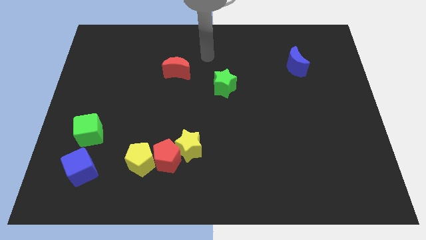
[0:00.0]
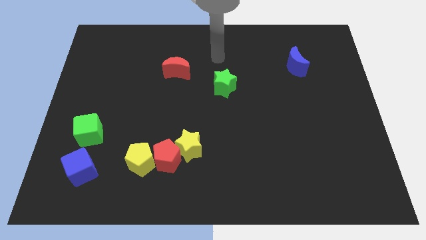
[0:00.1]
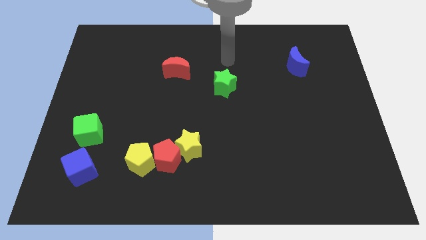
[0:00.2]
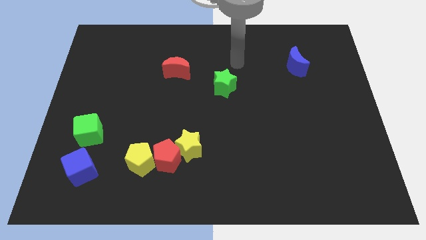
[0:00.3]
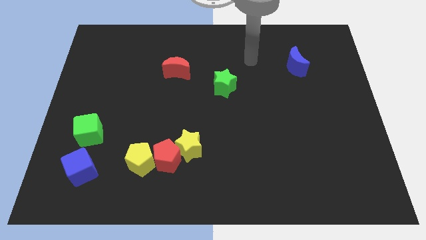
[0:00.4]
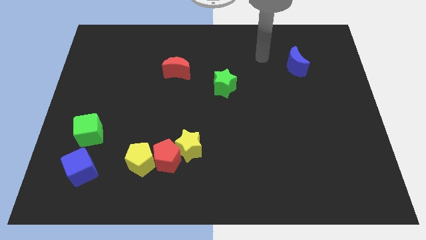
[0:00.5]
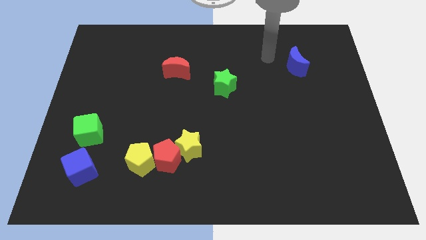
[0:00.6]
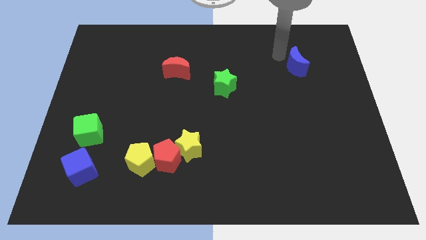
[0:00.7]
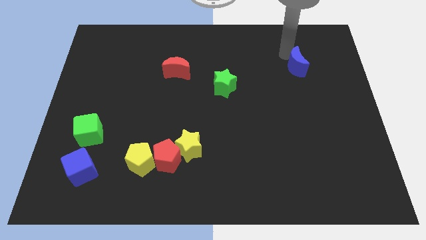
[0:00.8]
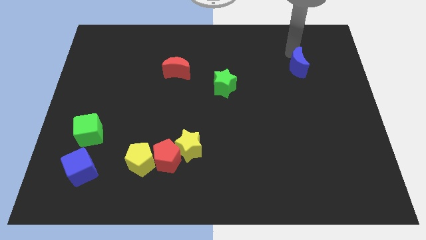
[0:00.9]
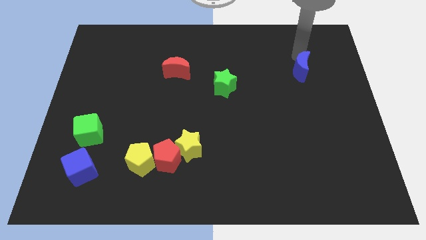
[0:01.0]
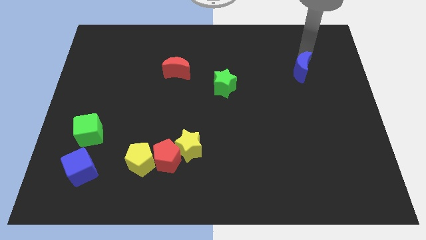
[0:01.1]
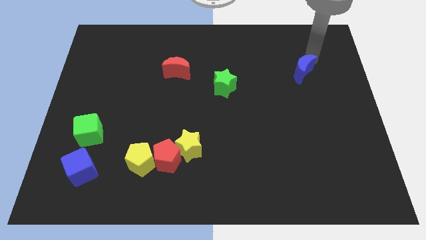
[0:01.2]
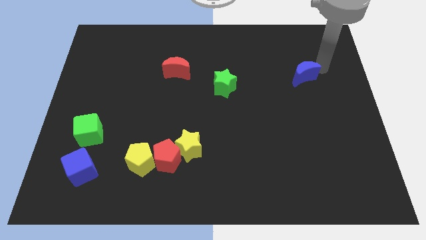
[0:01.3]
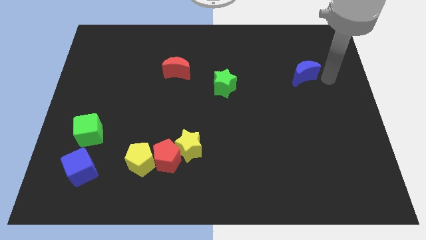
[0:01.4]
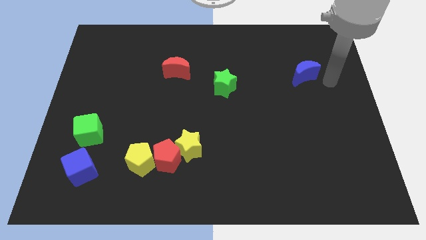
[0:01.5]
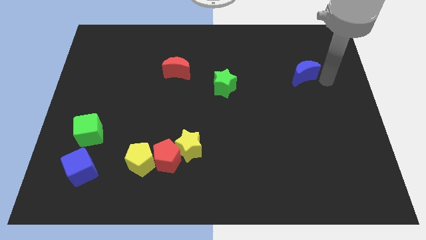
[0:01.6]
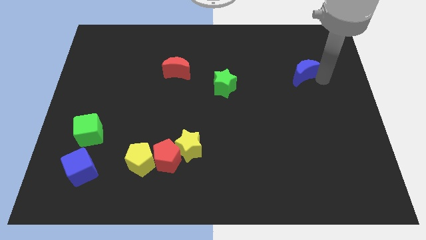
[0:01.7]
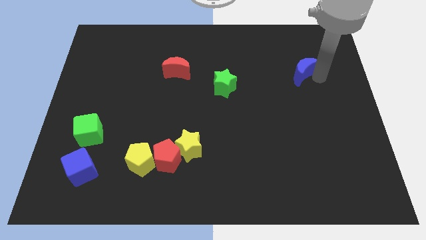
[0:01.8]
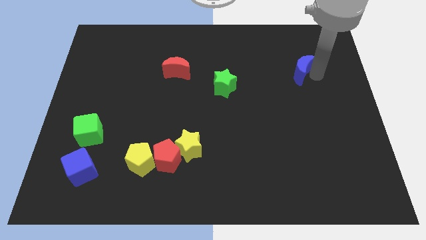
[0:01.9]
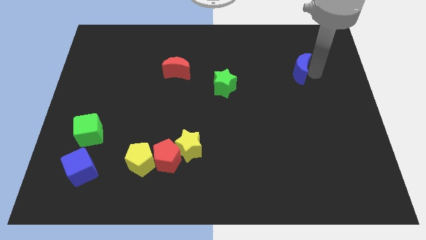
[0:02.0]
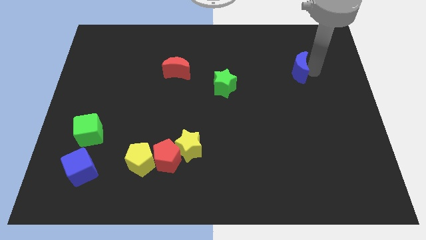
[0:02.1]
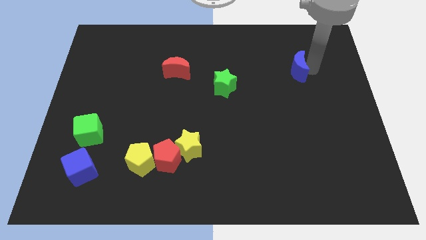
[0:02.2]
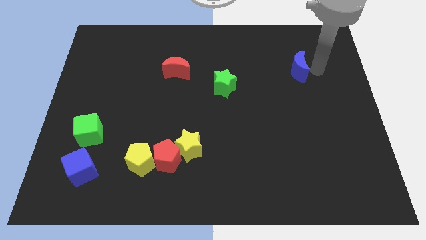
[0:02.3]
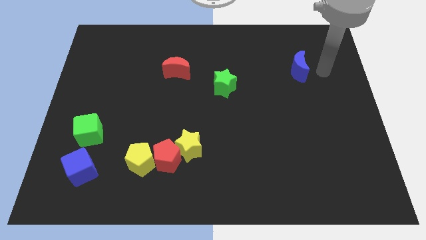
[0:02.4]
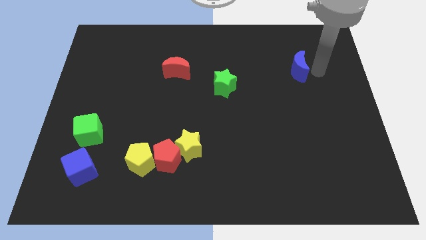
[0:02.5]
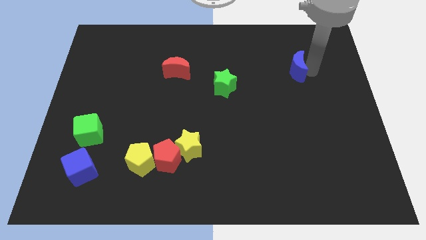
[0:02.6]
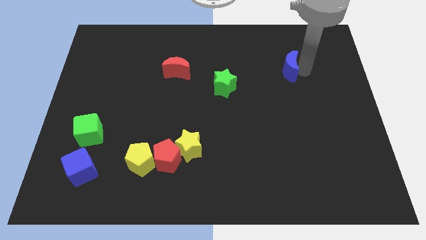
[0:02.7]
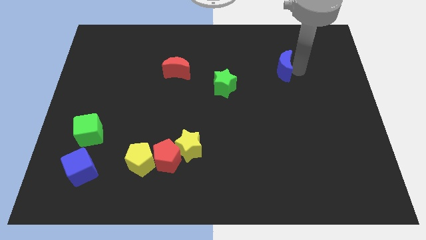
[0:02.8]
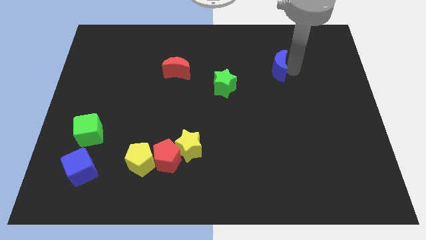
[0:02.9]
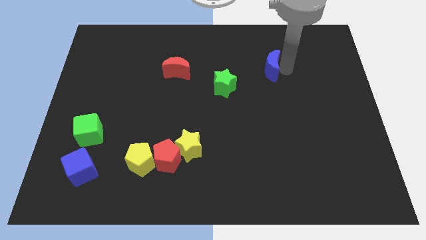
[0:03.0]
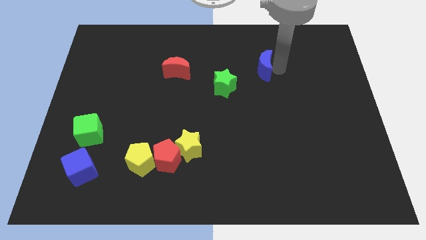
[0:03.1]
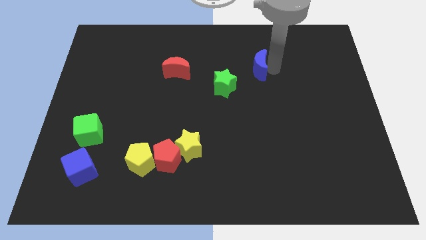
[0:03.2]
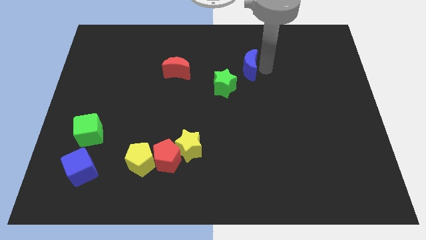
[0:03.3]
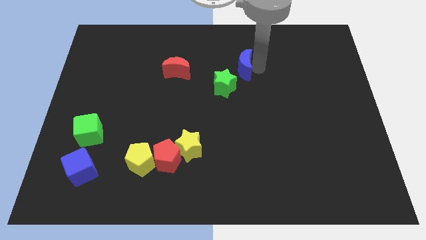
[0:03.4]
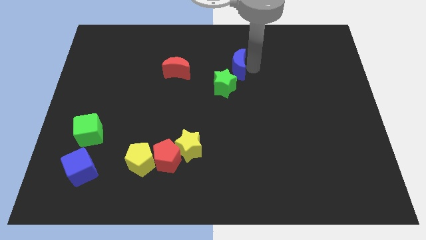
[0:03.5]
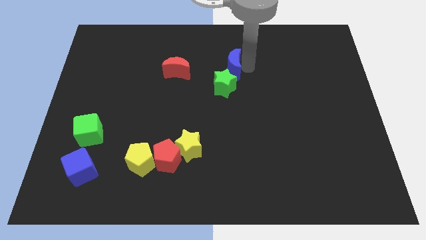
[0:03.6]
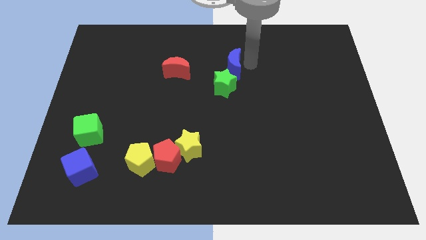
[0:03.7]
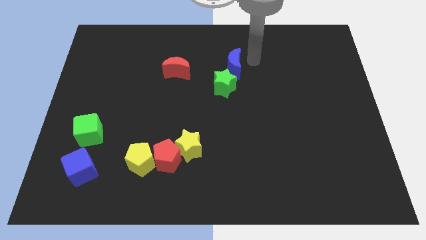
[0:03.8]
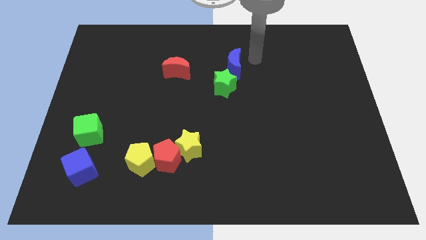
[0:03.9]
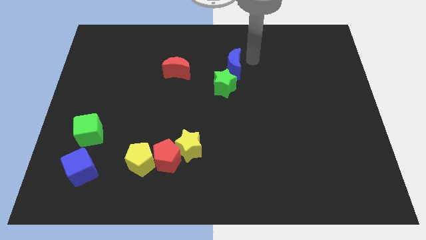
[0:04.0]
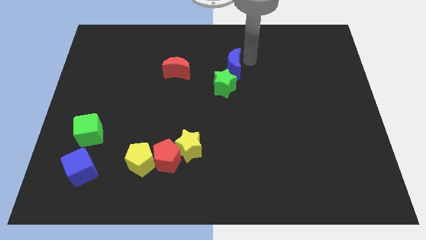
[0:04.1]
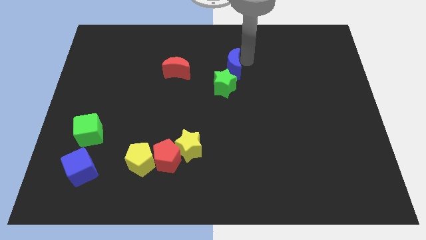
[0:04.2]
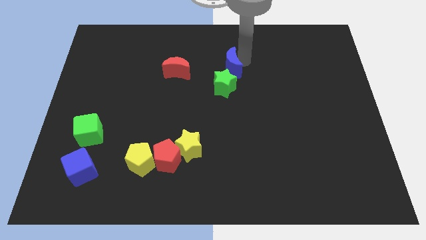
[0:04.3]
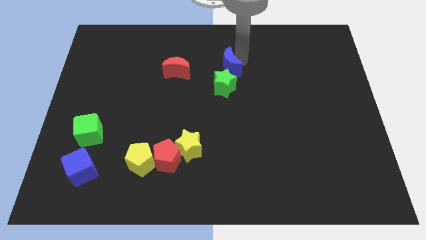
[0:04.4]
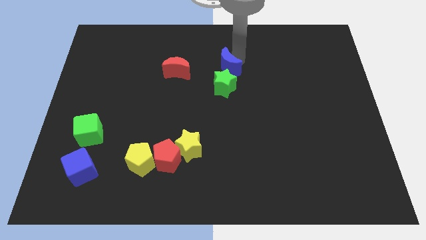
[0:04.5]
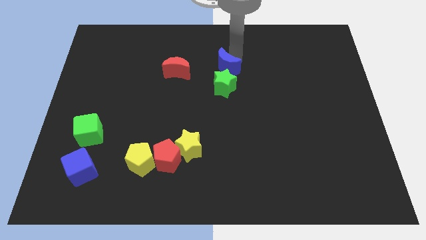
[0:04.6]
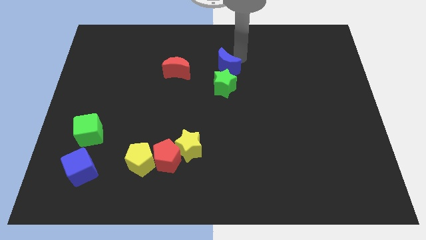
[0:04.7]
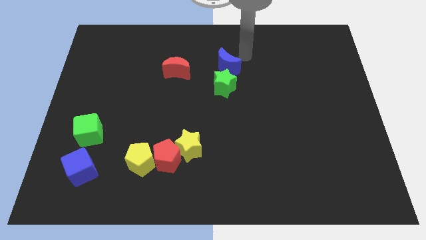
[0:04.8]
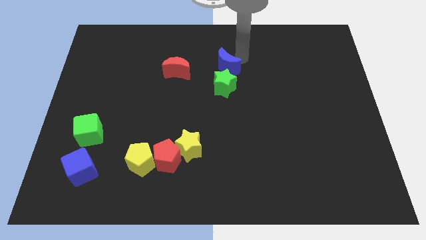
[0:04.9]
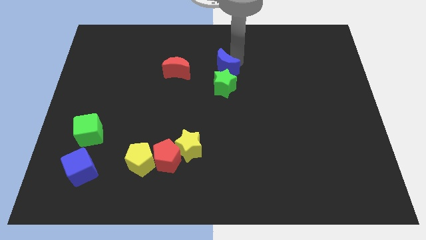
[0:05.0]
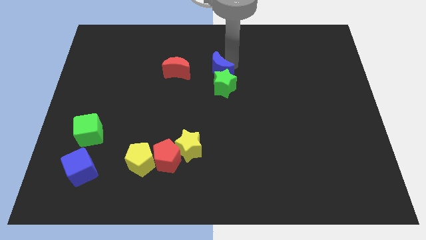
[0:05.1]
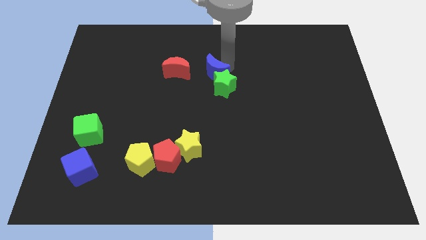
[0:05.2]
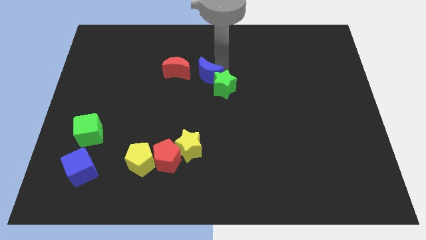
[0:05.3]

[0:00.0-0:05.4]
slide the blue moon diagonally down and to the right of the red moon

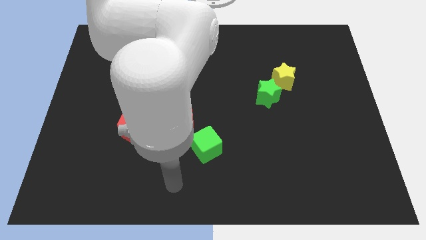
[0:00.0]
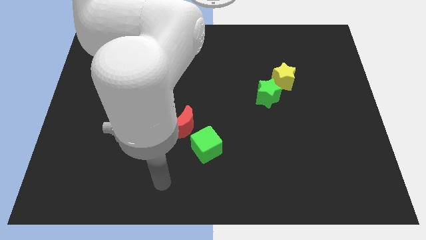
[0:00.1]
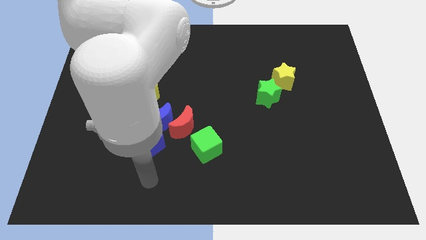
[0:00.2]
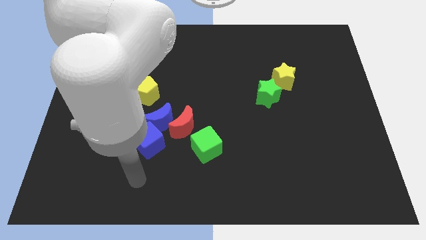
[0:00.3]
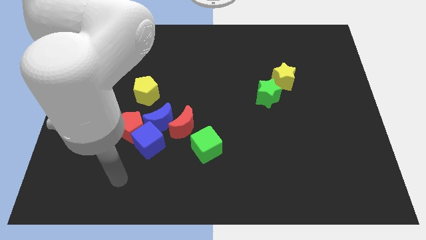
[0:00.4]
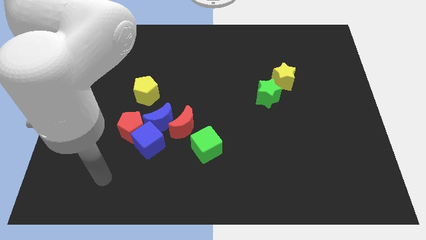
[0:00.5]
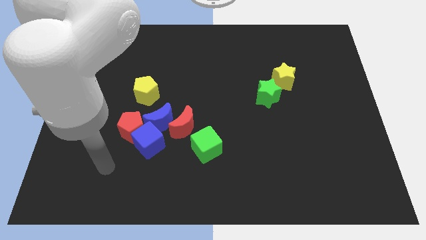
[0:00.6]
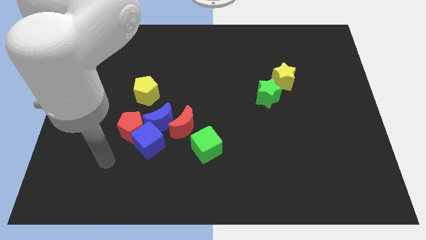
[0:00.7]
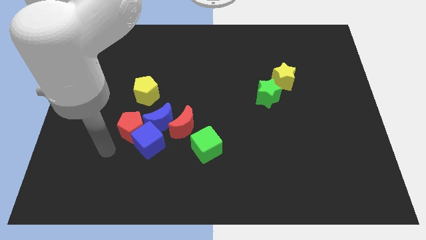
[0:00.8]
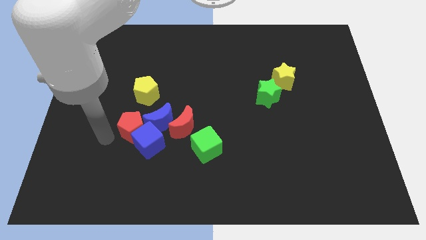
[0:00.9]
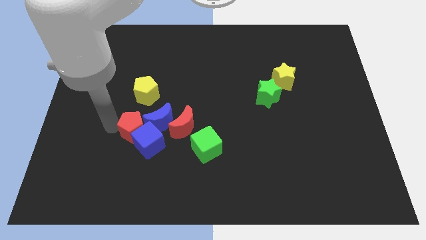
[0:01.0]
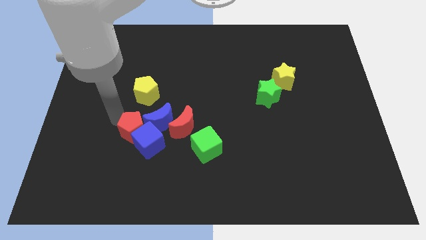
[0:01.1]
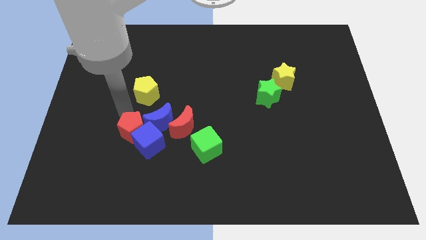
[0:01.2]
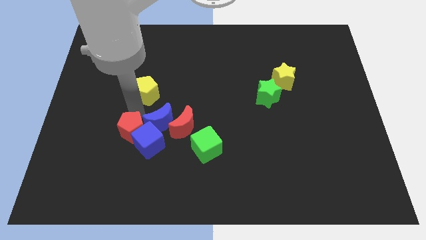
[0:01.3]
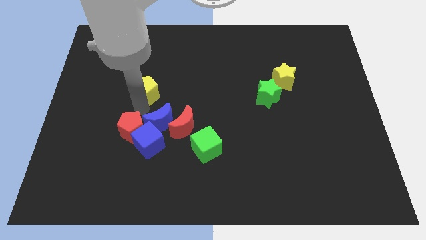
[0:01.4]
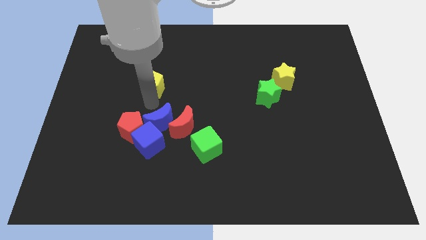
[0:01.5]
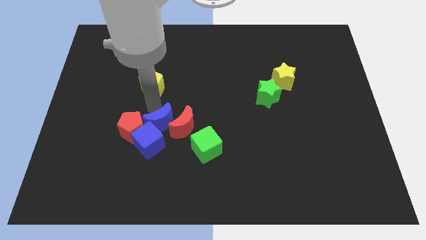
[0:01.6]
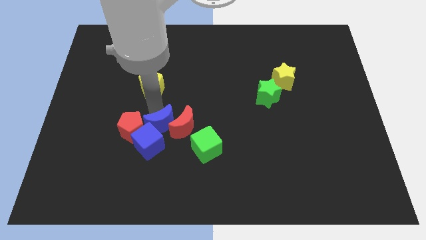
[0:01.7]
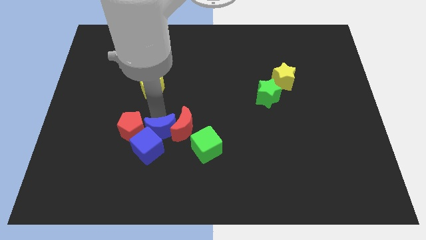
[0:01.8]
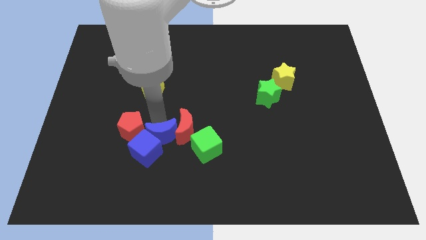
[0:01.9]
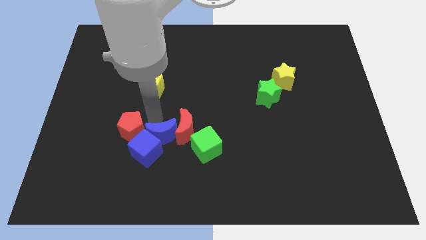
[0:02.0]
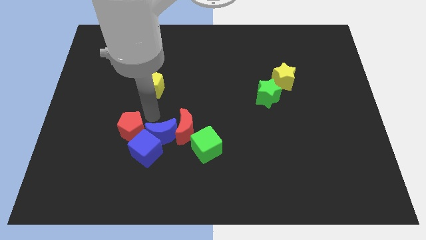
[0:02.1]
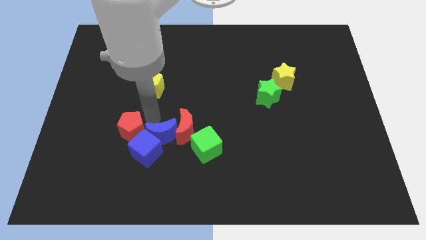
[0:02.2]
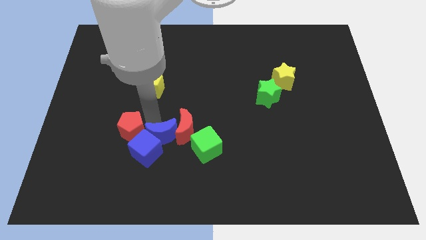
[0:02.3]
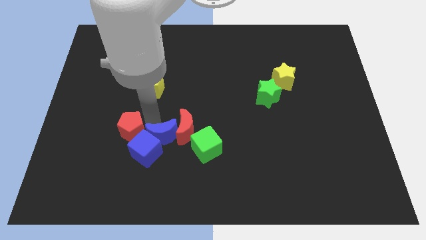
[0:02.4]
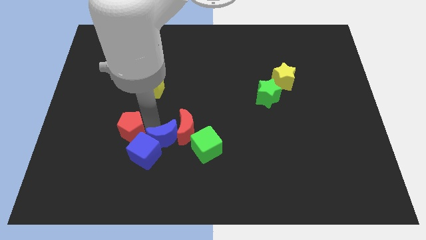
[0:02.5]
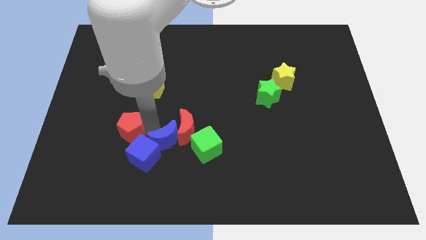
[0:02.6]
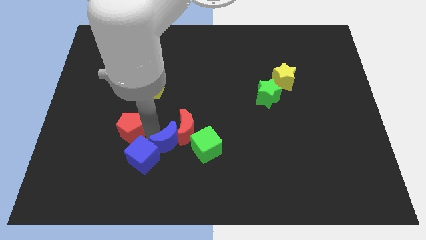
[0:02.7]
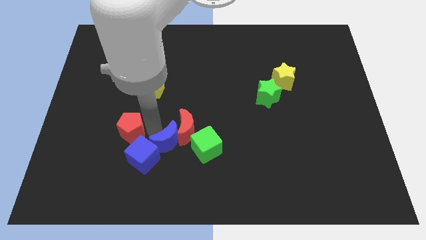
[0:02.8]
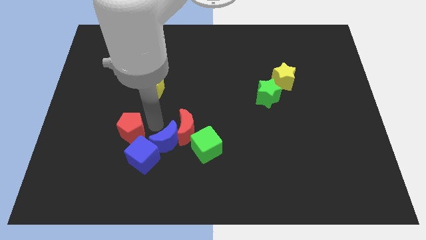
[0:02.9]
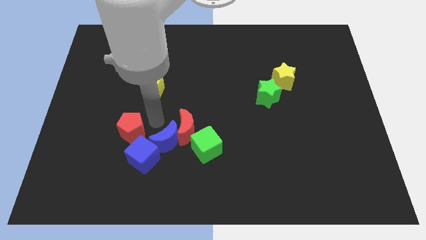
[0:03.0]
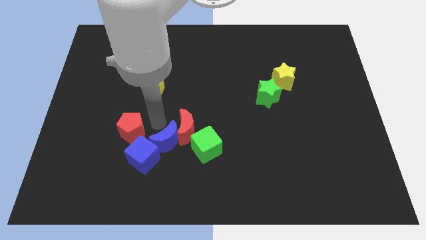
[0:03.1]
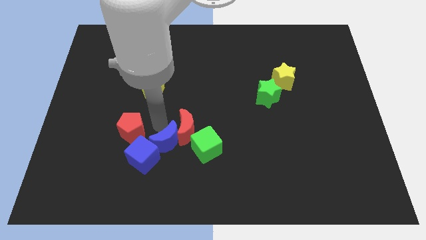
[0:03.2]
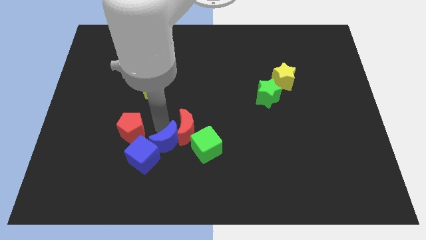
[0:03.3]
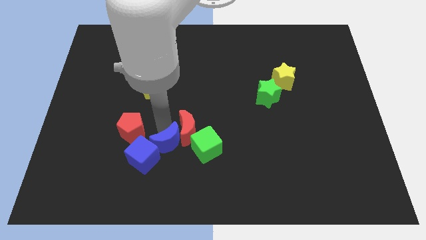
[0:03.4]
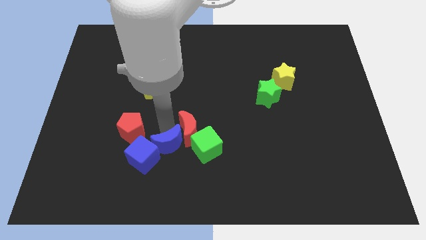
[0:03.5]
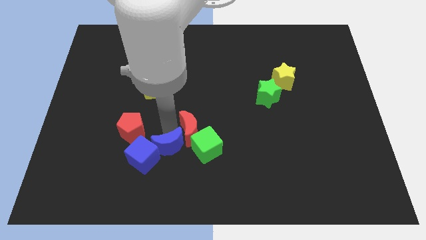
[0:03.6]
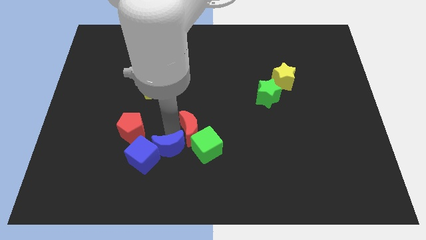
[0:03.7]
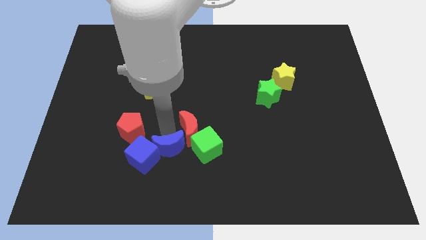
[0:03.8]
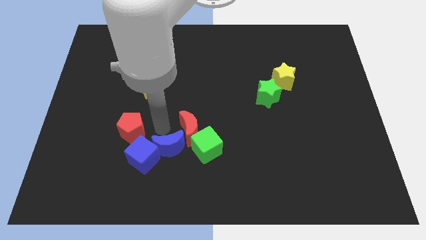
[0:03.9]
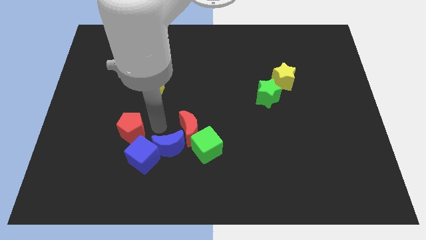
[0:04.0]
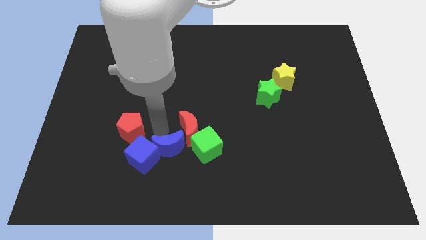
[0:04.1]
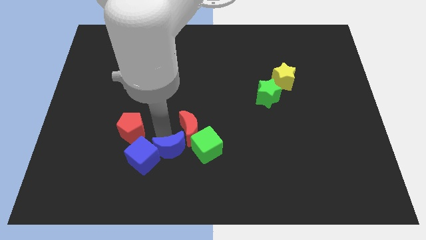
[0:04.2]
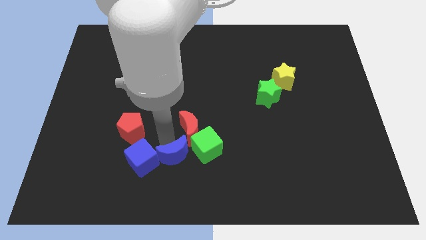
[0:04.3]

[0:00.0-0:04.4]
move the blue moon diagonally down and to the left of the green cube
